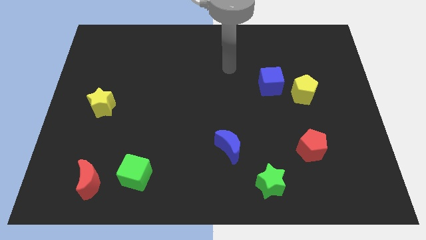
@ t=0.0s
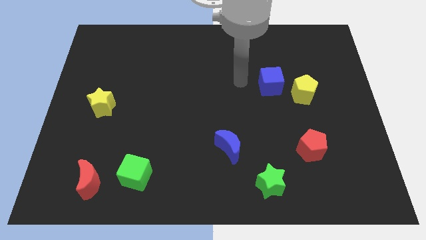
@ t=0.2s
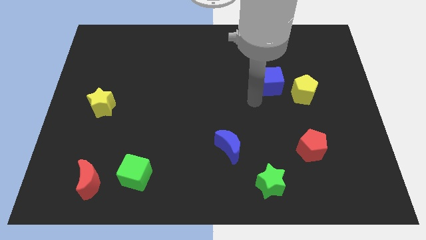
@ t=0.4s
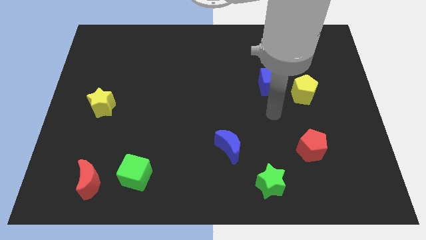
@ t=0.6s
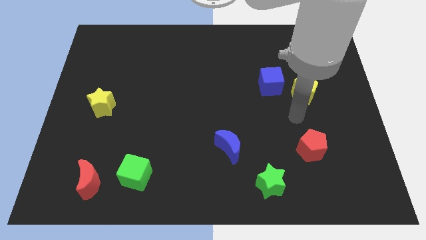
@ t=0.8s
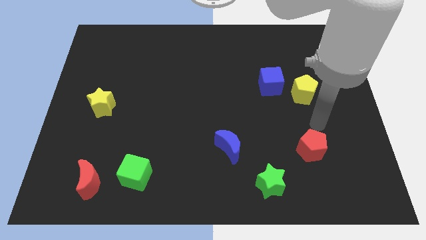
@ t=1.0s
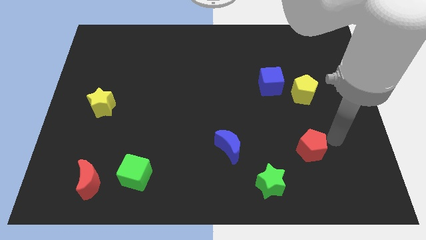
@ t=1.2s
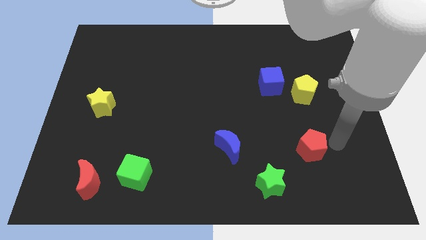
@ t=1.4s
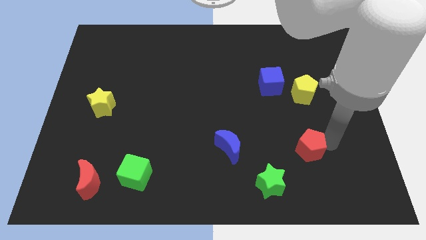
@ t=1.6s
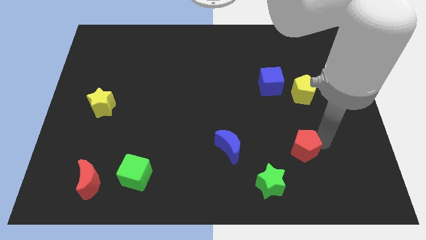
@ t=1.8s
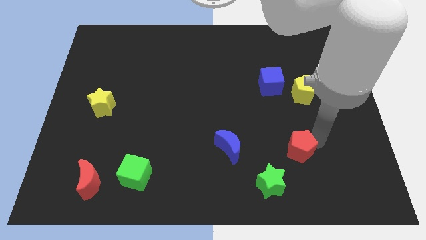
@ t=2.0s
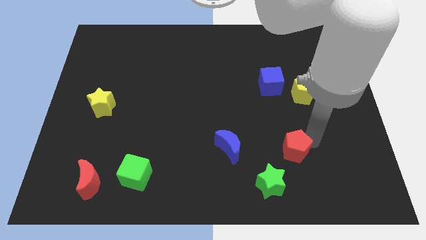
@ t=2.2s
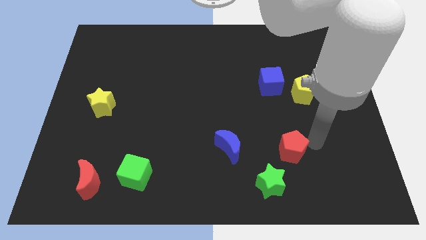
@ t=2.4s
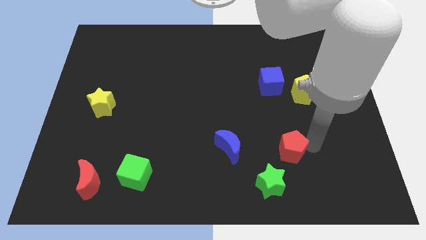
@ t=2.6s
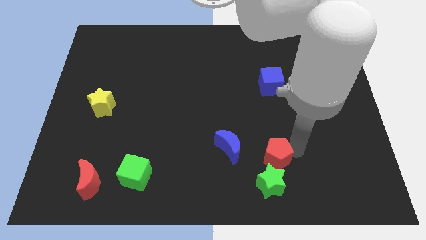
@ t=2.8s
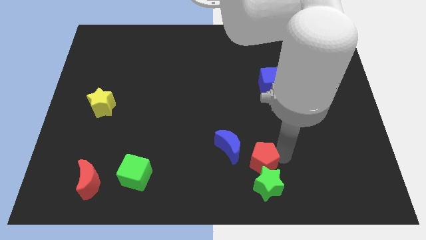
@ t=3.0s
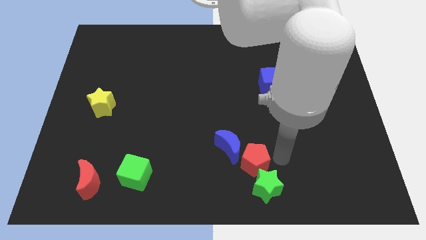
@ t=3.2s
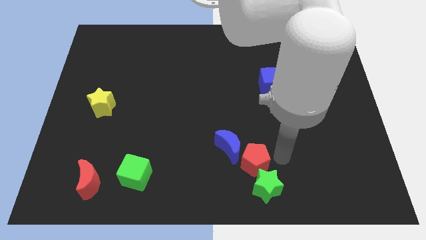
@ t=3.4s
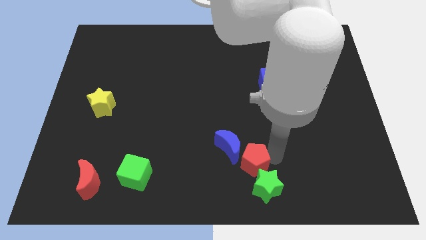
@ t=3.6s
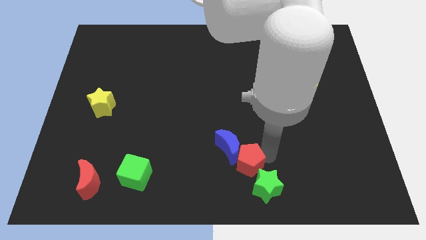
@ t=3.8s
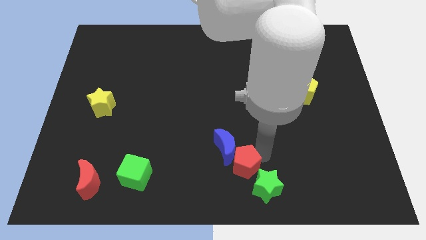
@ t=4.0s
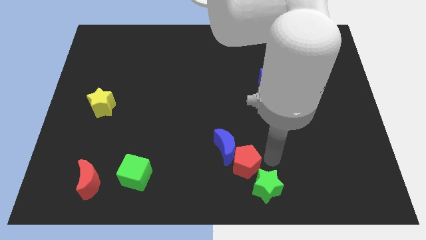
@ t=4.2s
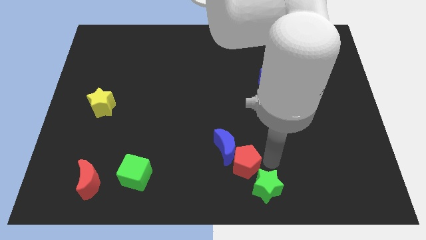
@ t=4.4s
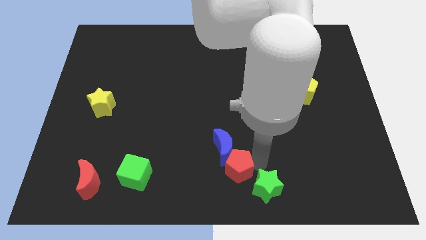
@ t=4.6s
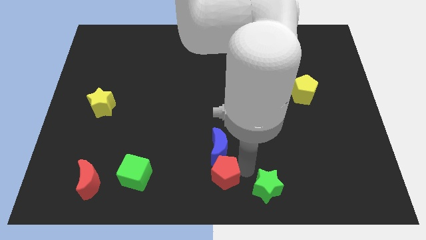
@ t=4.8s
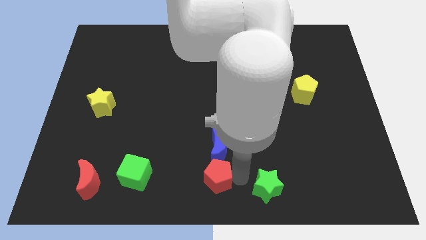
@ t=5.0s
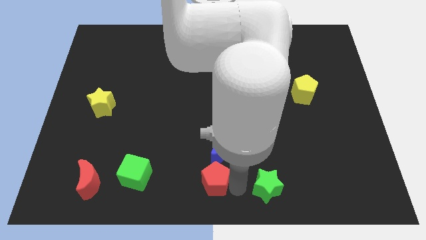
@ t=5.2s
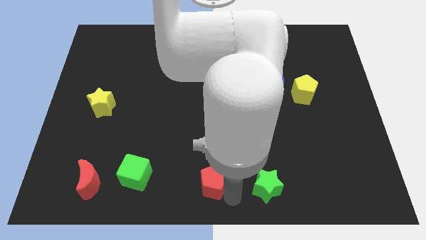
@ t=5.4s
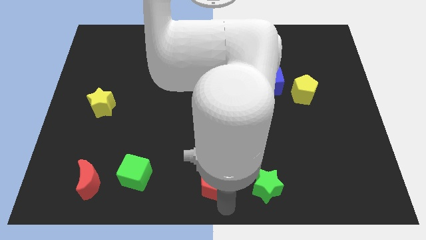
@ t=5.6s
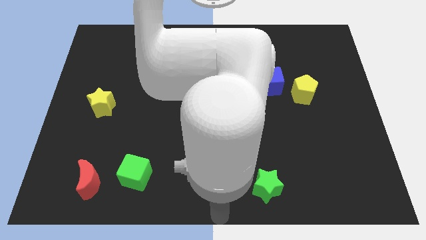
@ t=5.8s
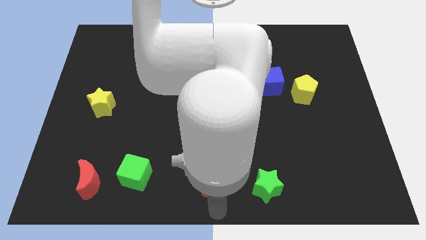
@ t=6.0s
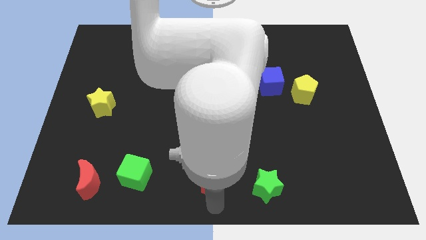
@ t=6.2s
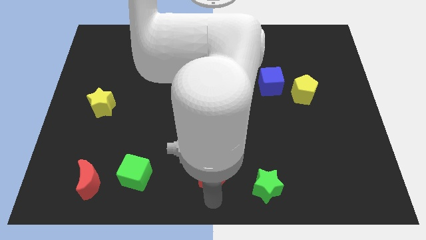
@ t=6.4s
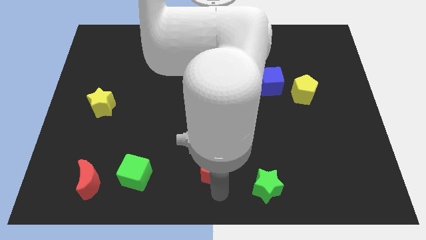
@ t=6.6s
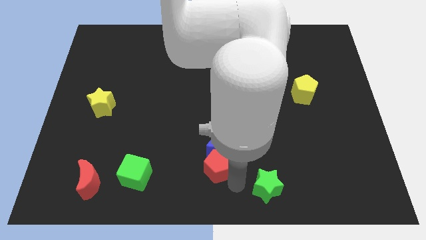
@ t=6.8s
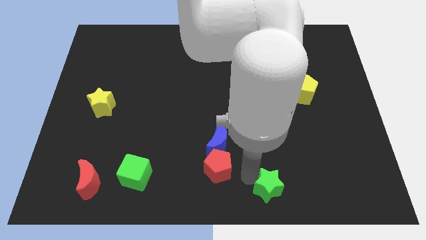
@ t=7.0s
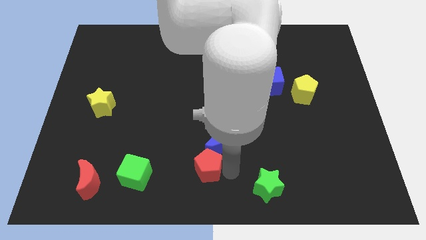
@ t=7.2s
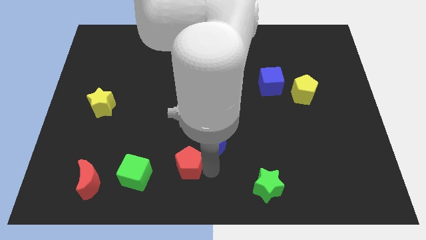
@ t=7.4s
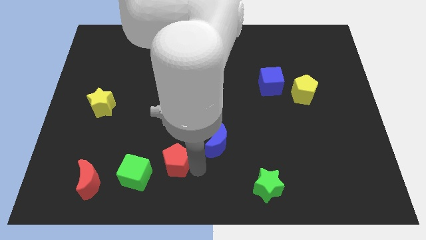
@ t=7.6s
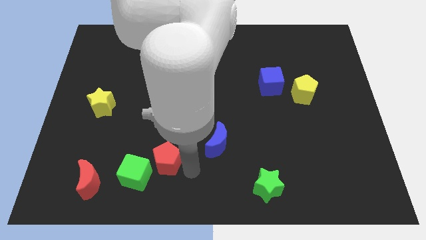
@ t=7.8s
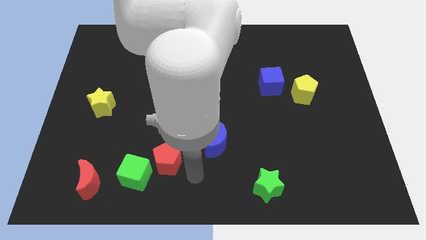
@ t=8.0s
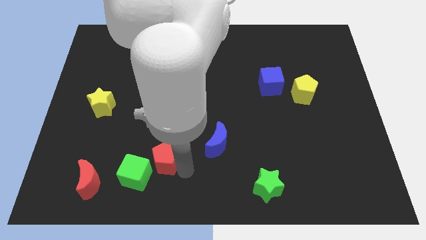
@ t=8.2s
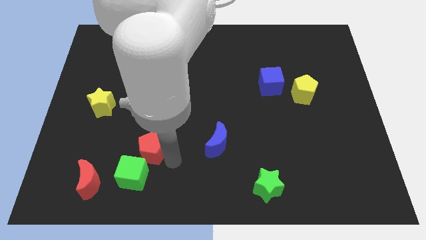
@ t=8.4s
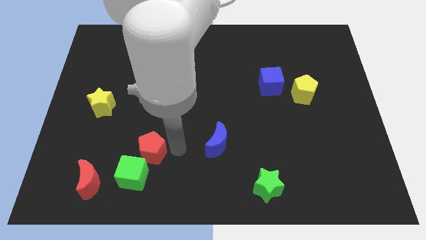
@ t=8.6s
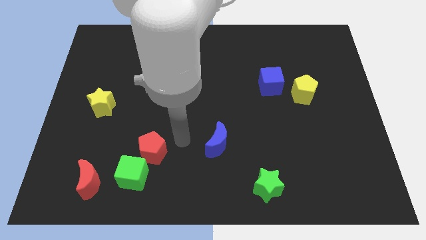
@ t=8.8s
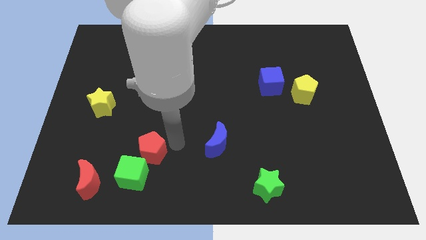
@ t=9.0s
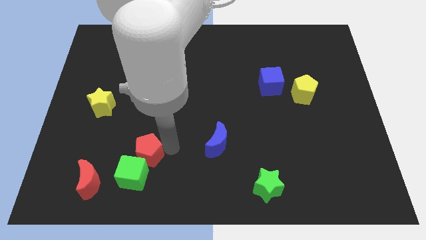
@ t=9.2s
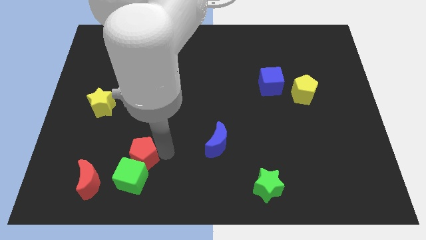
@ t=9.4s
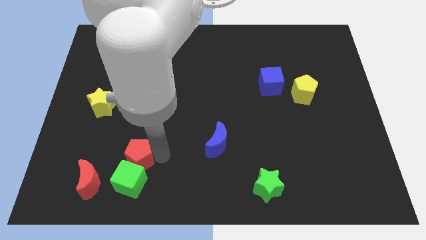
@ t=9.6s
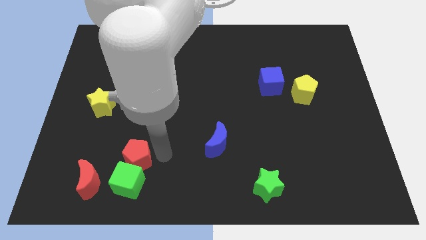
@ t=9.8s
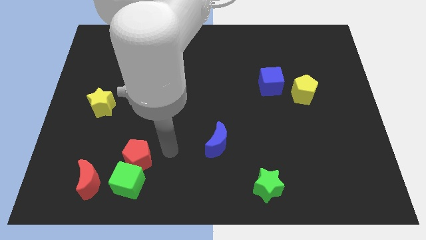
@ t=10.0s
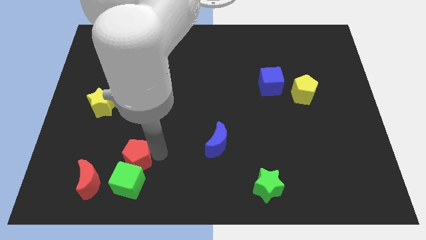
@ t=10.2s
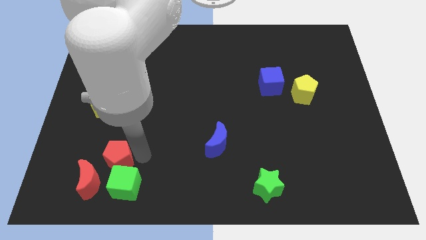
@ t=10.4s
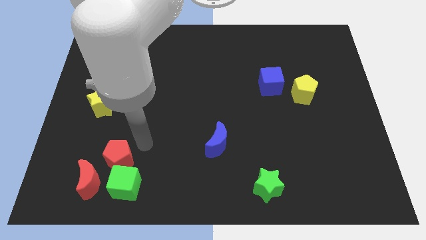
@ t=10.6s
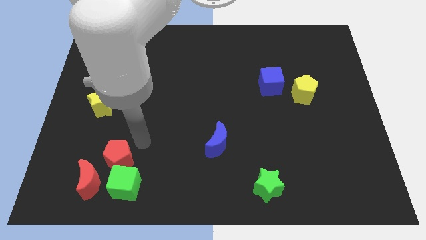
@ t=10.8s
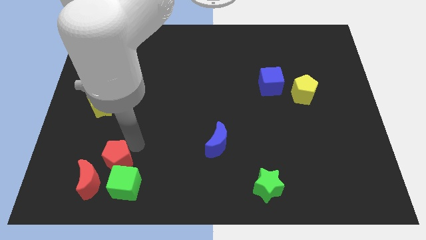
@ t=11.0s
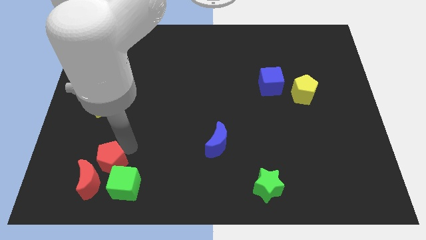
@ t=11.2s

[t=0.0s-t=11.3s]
move the red pentagon close to the red moon

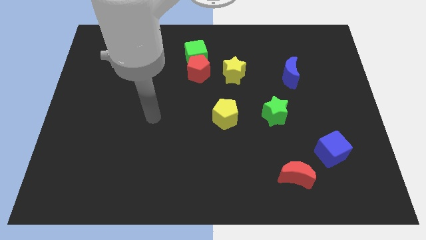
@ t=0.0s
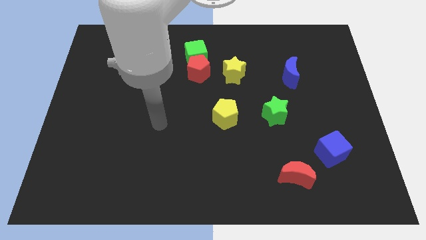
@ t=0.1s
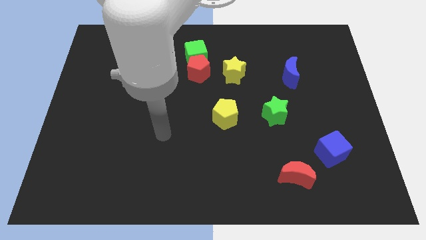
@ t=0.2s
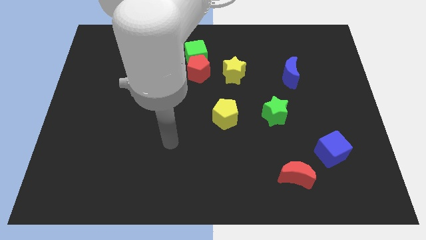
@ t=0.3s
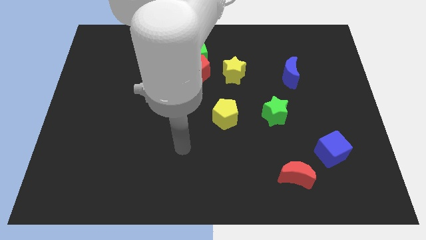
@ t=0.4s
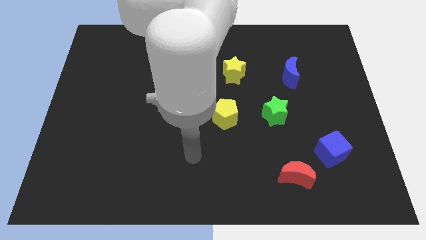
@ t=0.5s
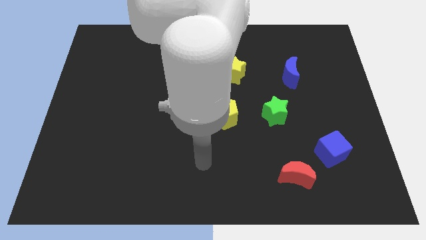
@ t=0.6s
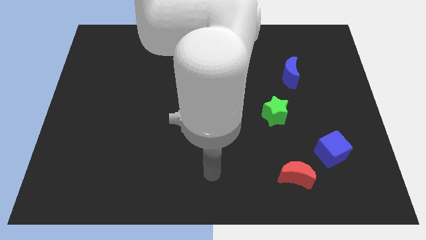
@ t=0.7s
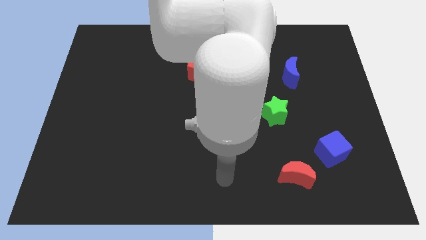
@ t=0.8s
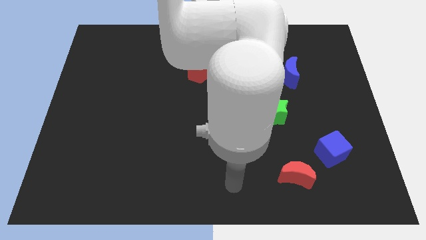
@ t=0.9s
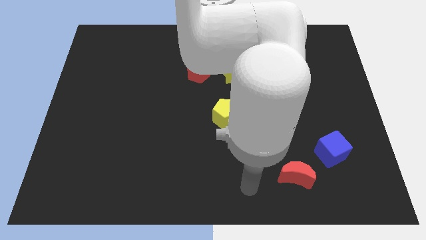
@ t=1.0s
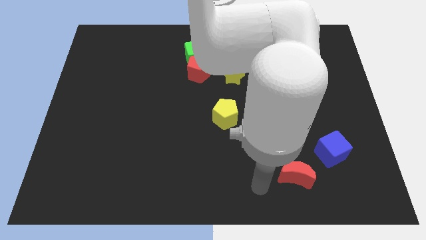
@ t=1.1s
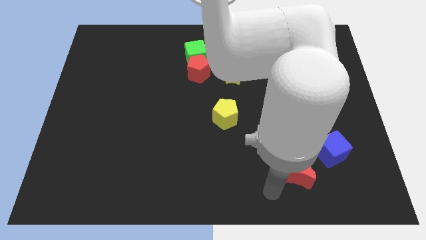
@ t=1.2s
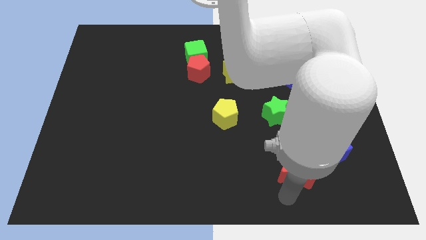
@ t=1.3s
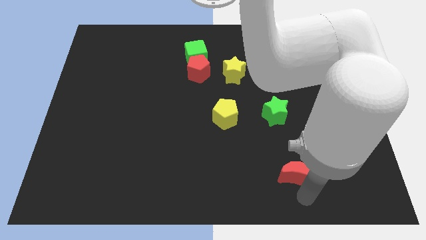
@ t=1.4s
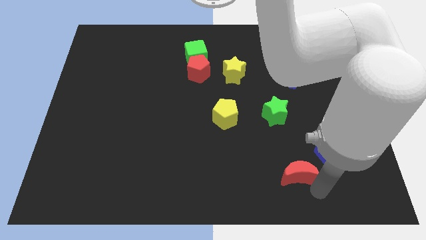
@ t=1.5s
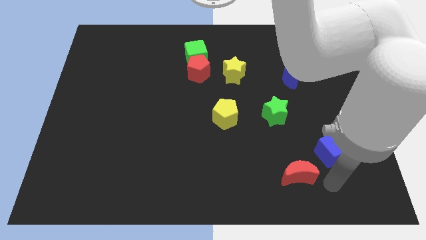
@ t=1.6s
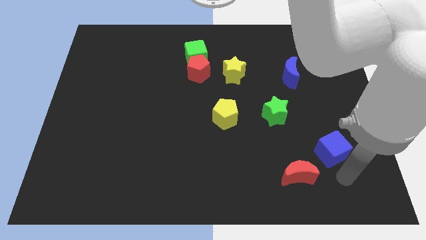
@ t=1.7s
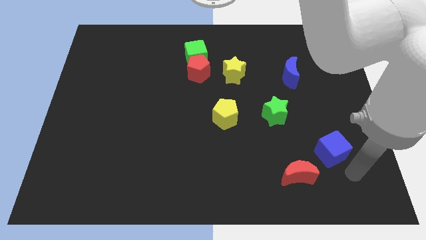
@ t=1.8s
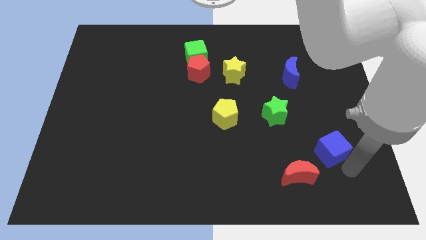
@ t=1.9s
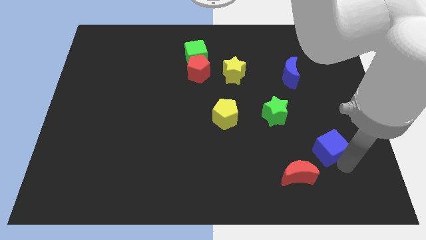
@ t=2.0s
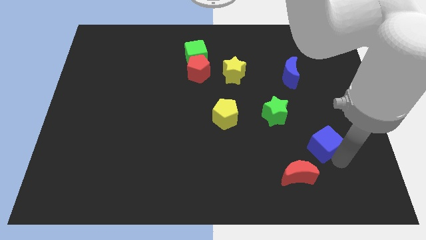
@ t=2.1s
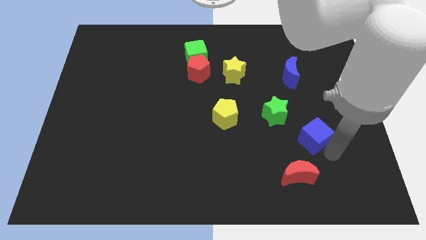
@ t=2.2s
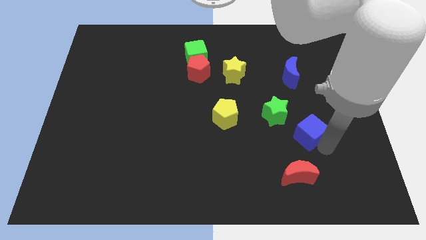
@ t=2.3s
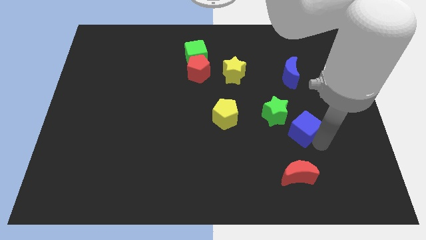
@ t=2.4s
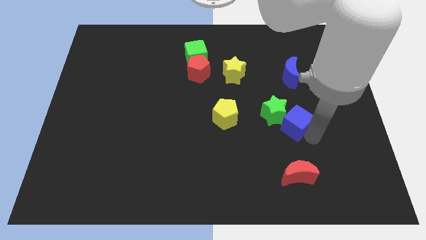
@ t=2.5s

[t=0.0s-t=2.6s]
push the blue cube towards the green star
